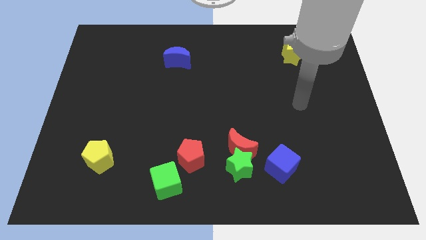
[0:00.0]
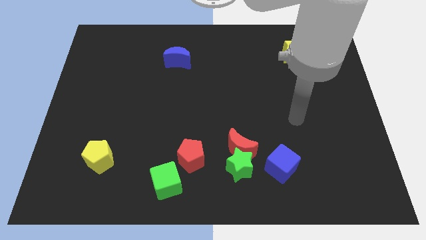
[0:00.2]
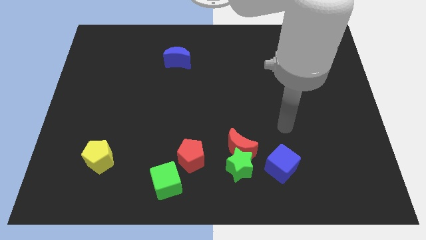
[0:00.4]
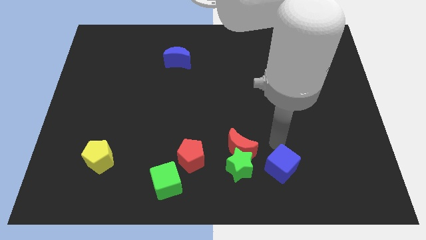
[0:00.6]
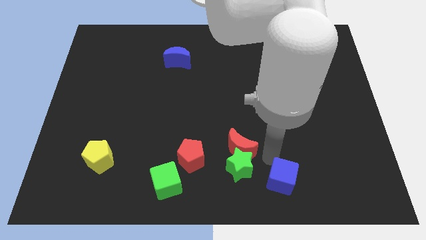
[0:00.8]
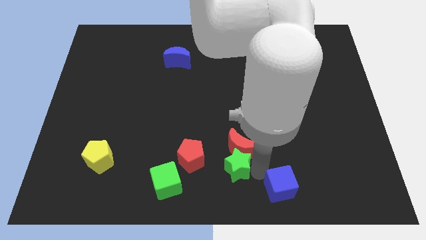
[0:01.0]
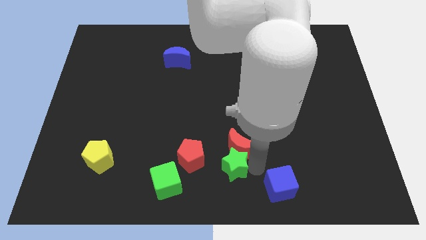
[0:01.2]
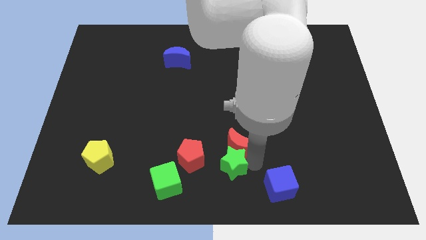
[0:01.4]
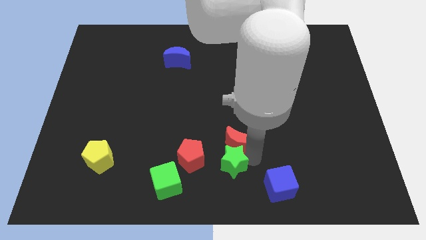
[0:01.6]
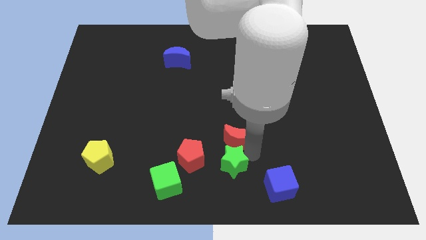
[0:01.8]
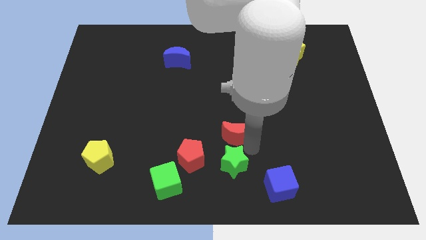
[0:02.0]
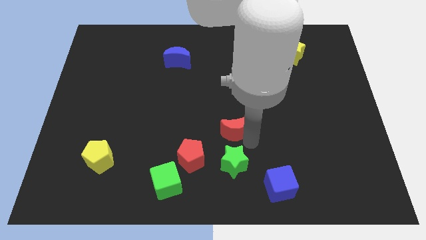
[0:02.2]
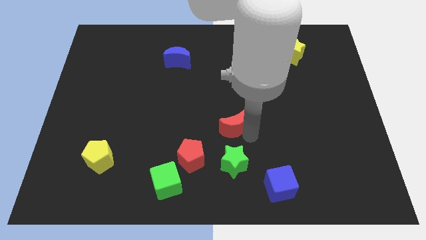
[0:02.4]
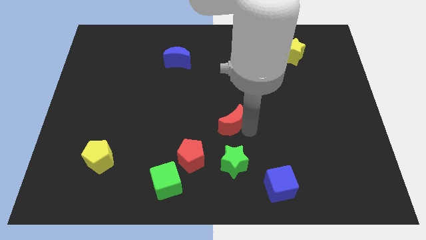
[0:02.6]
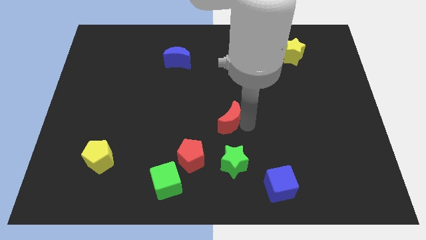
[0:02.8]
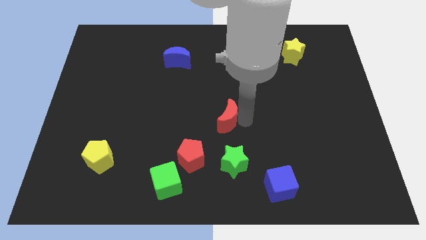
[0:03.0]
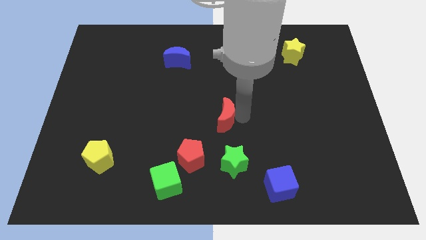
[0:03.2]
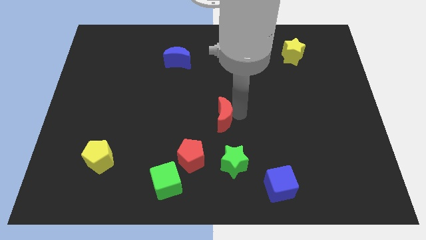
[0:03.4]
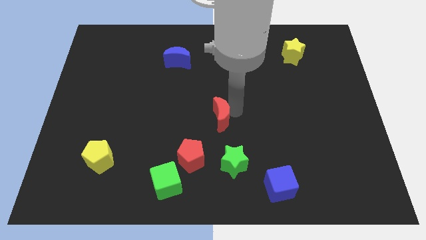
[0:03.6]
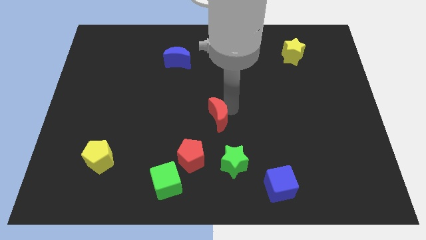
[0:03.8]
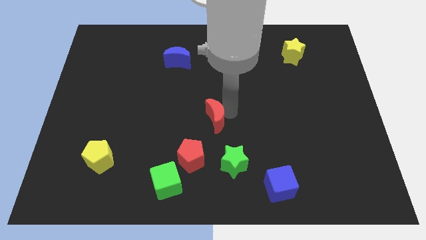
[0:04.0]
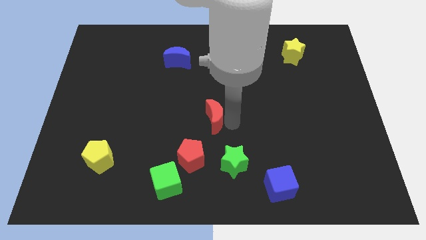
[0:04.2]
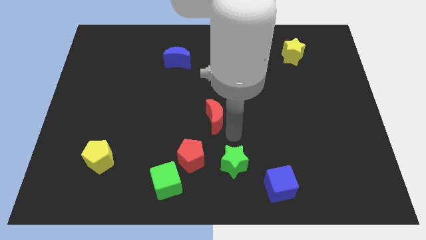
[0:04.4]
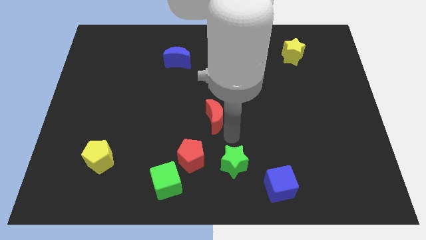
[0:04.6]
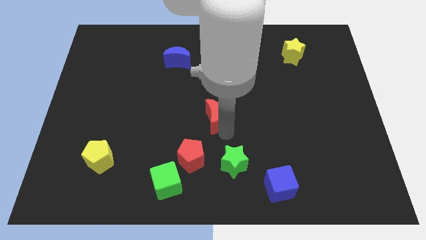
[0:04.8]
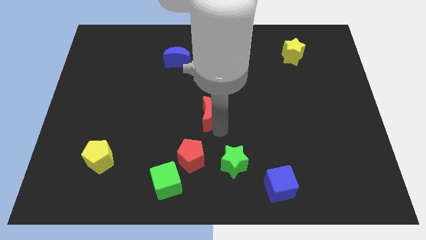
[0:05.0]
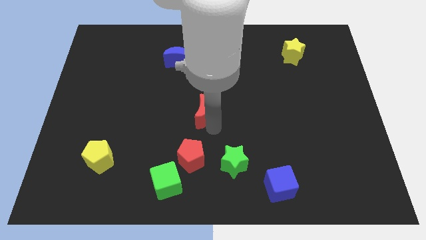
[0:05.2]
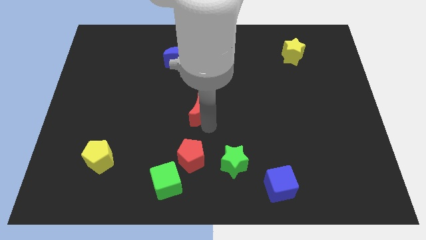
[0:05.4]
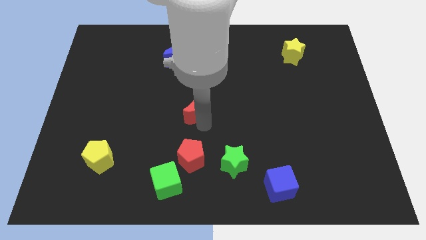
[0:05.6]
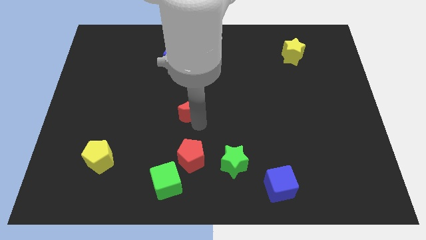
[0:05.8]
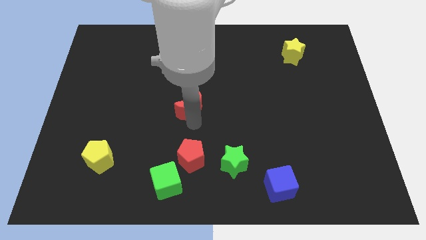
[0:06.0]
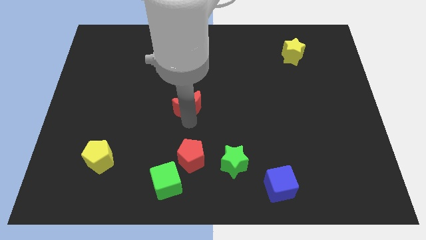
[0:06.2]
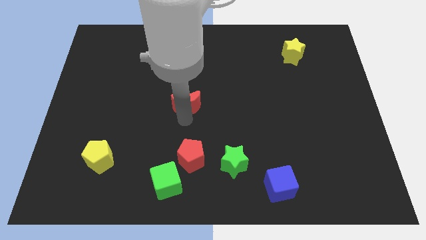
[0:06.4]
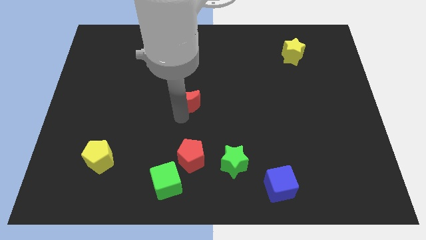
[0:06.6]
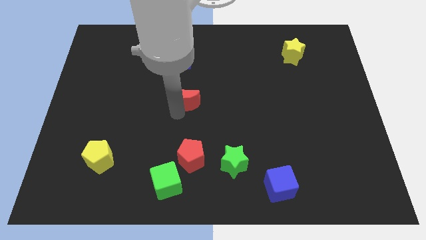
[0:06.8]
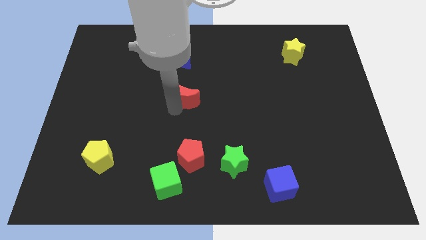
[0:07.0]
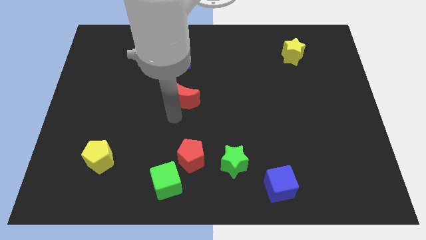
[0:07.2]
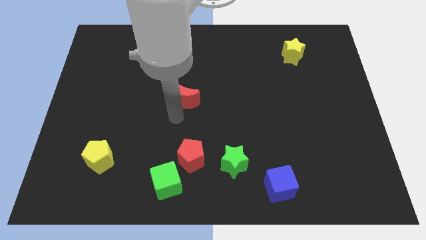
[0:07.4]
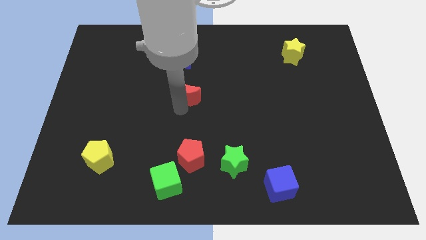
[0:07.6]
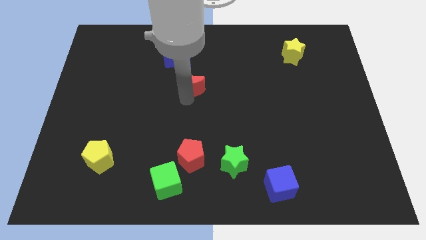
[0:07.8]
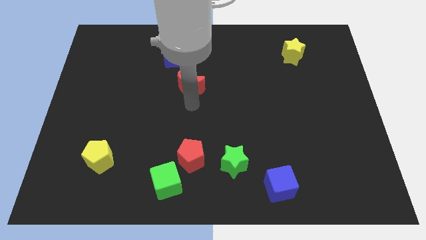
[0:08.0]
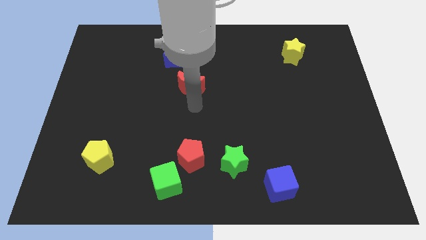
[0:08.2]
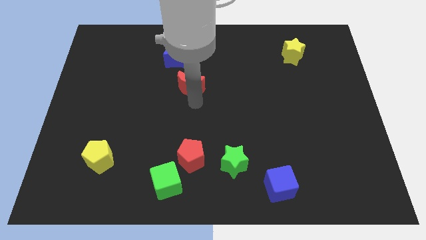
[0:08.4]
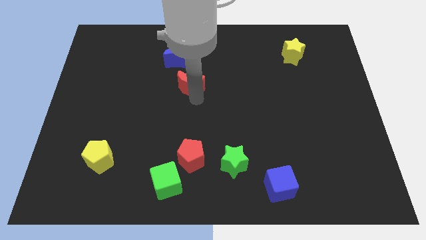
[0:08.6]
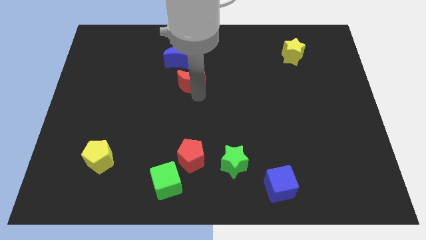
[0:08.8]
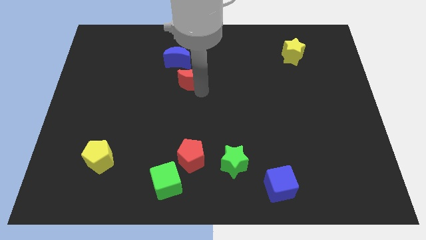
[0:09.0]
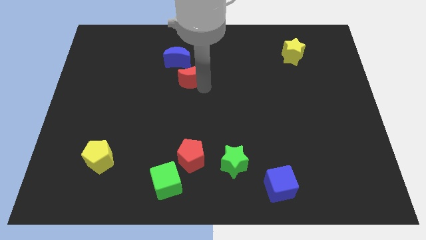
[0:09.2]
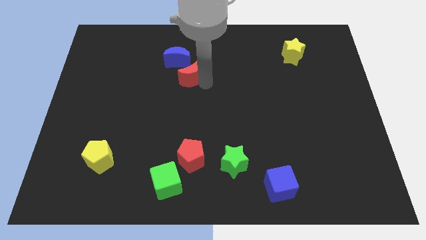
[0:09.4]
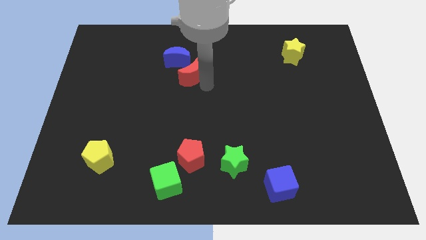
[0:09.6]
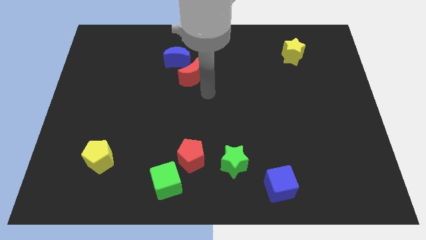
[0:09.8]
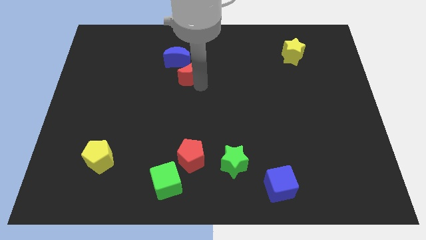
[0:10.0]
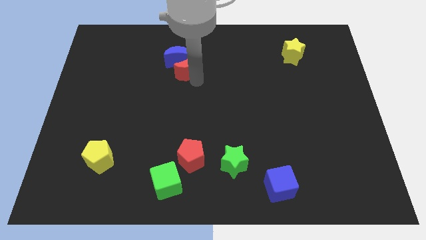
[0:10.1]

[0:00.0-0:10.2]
move the red moon close to the blue moon

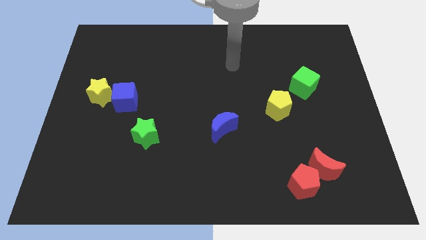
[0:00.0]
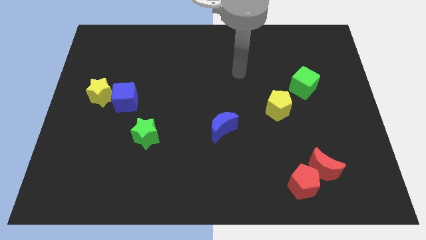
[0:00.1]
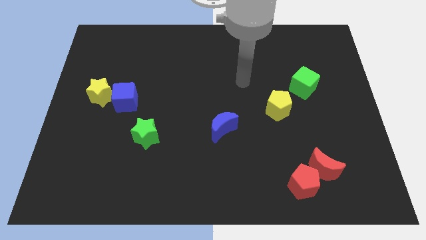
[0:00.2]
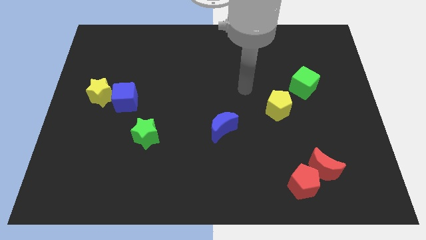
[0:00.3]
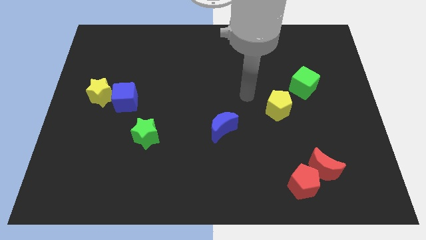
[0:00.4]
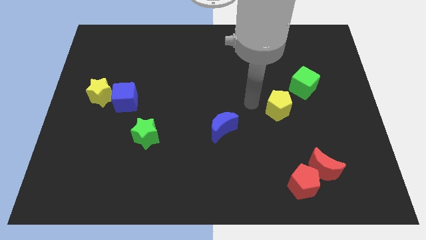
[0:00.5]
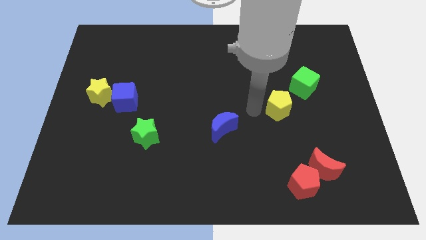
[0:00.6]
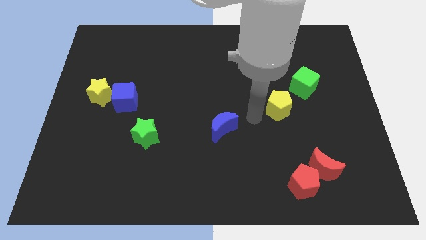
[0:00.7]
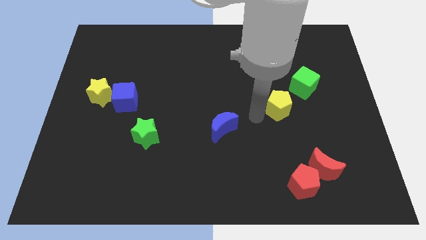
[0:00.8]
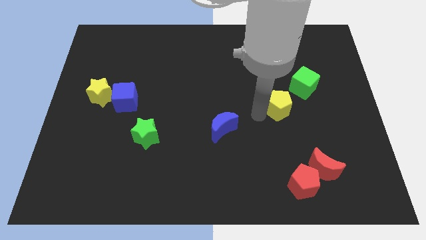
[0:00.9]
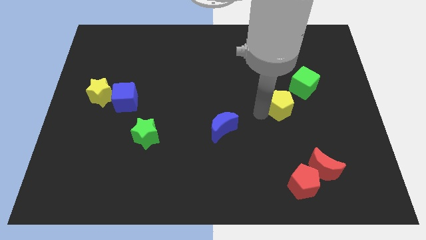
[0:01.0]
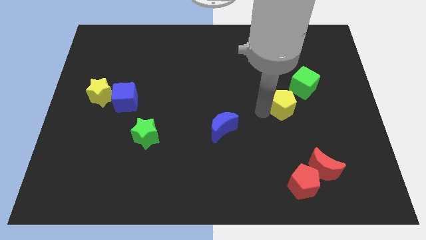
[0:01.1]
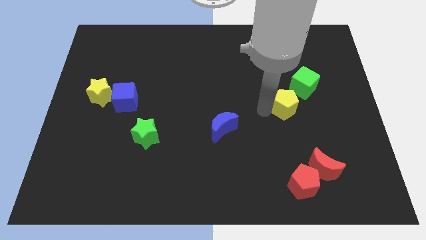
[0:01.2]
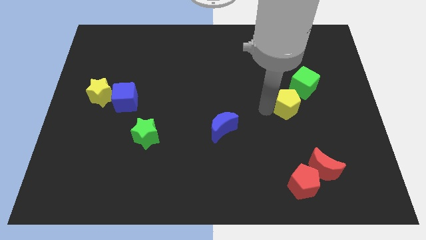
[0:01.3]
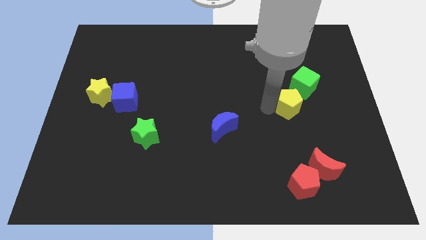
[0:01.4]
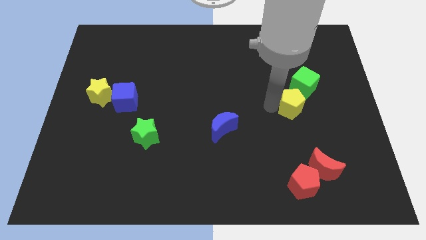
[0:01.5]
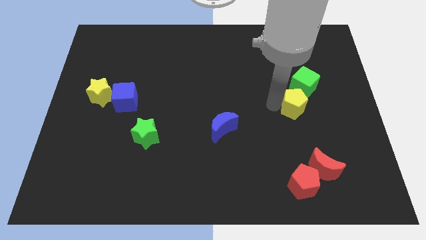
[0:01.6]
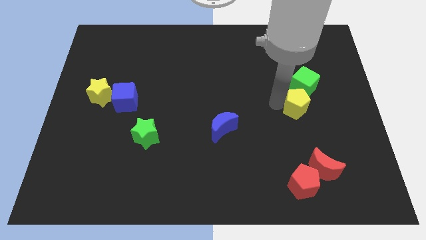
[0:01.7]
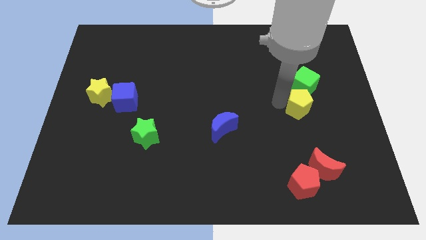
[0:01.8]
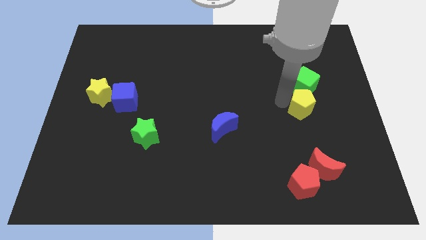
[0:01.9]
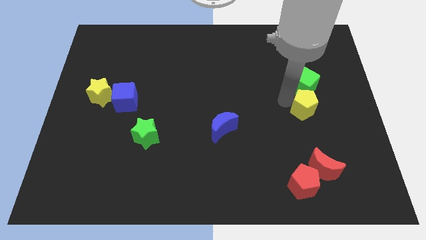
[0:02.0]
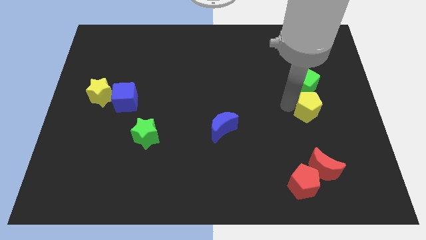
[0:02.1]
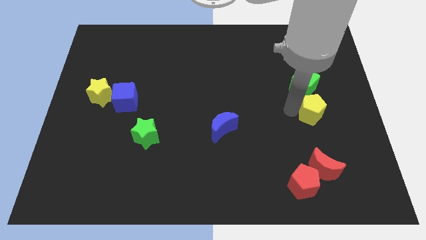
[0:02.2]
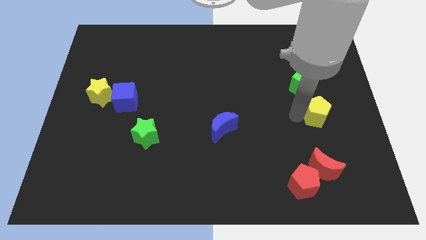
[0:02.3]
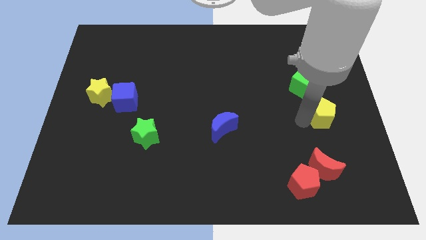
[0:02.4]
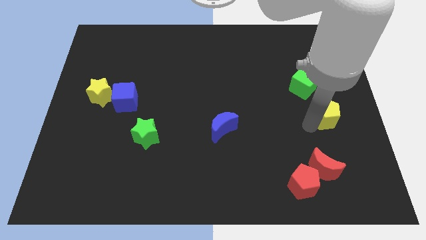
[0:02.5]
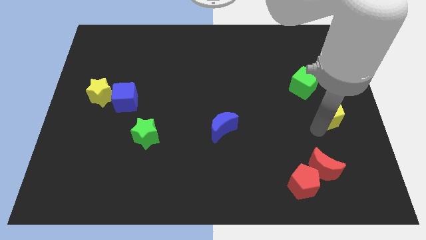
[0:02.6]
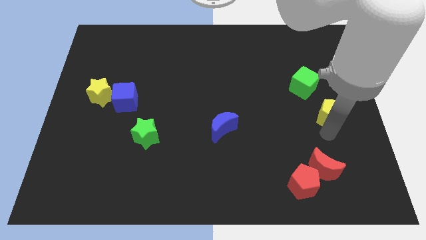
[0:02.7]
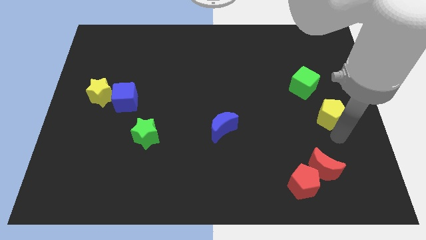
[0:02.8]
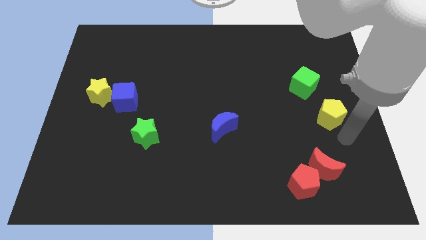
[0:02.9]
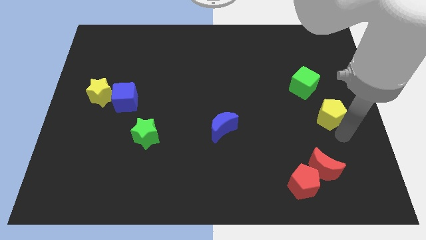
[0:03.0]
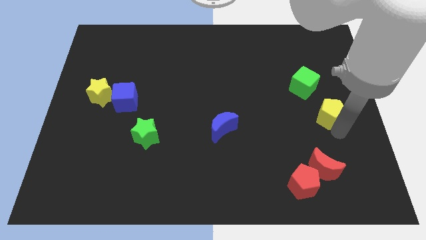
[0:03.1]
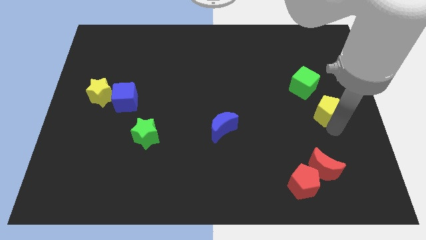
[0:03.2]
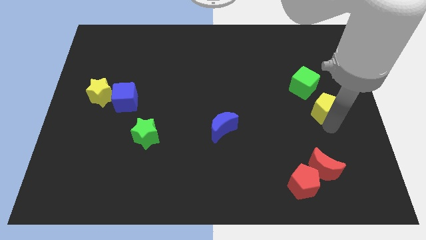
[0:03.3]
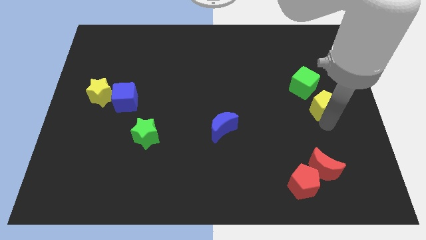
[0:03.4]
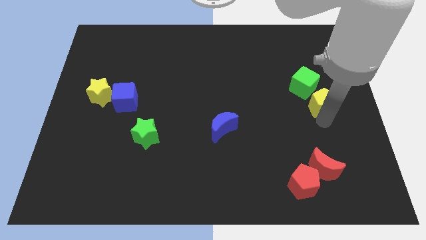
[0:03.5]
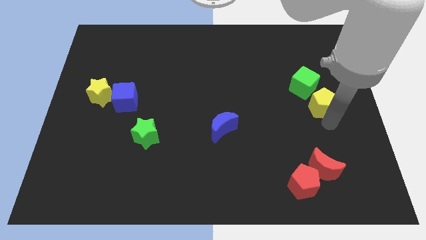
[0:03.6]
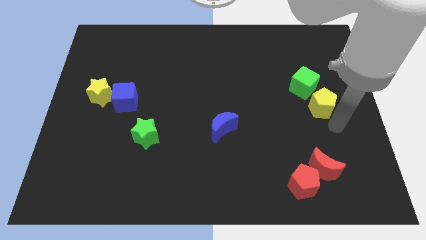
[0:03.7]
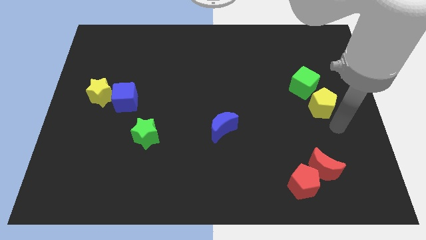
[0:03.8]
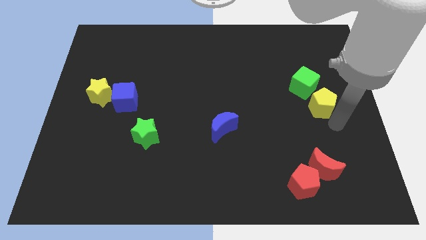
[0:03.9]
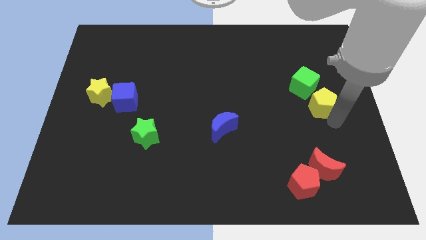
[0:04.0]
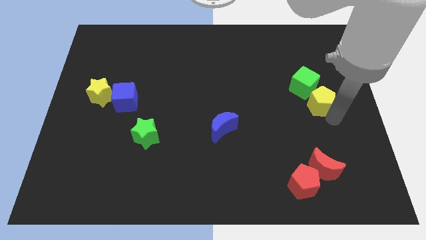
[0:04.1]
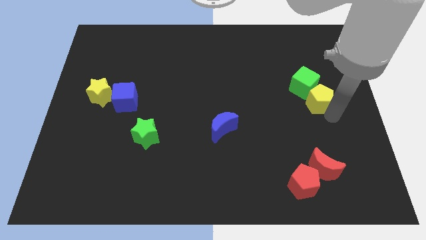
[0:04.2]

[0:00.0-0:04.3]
move the yellow pentagon to the green cube
